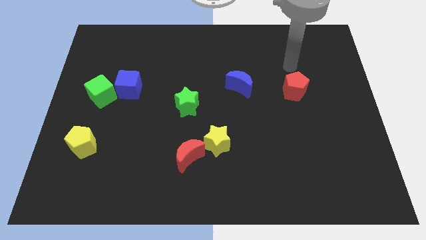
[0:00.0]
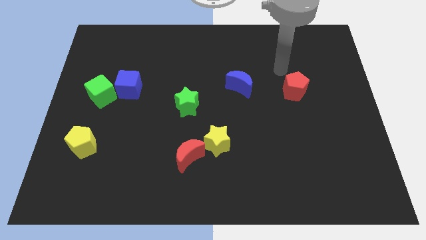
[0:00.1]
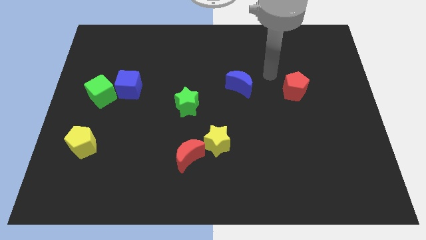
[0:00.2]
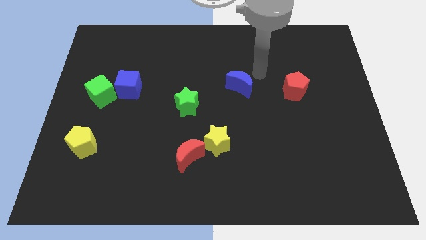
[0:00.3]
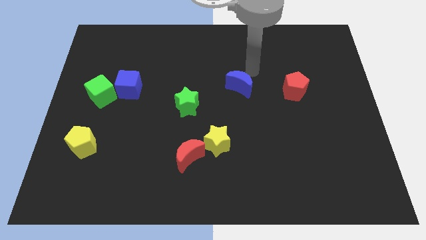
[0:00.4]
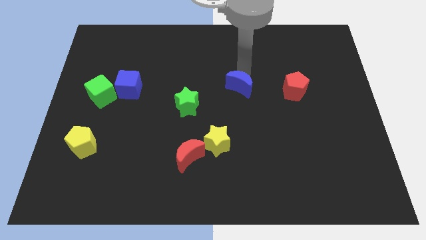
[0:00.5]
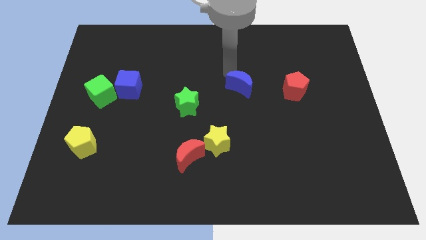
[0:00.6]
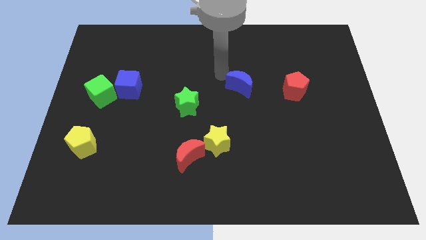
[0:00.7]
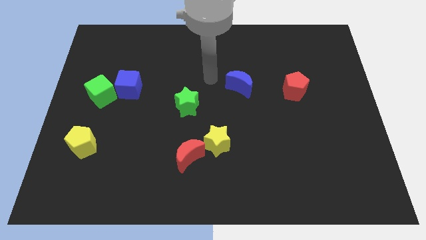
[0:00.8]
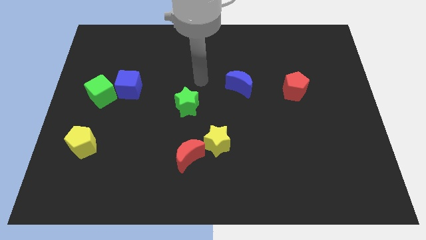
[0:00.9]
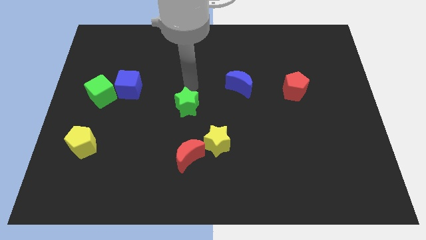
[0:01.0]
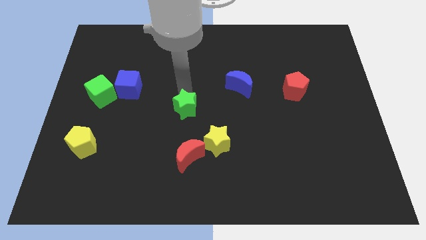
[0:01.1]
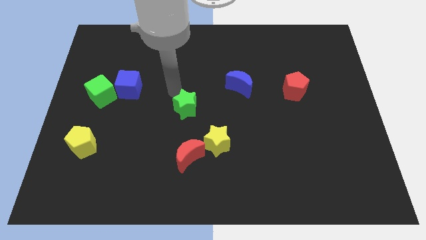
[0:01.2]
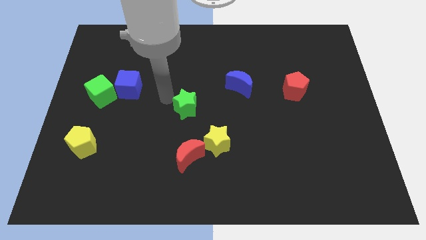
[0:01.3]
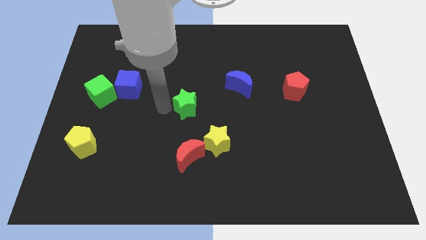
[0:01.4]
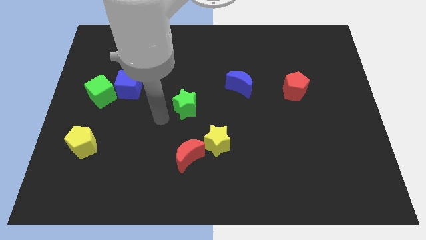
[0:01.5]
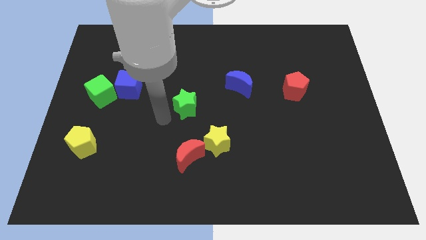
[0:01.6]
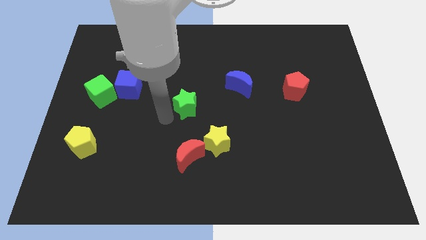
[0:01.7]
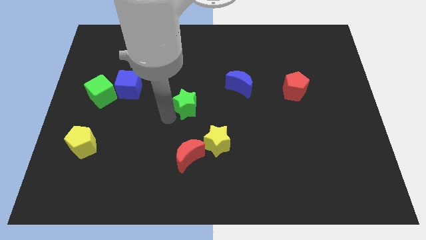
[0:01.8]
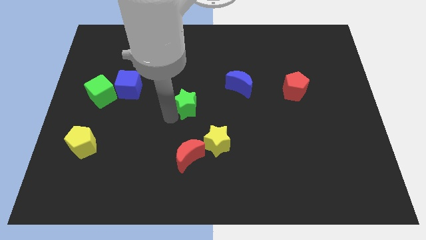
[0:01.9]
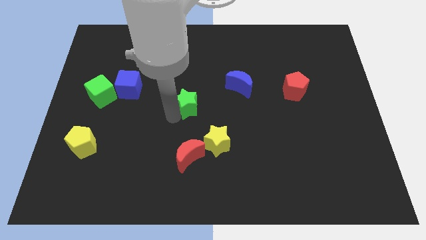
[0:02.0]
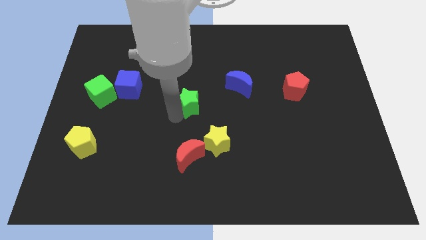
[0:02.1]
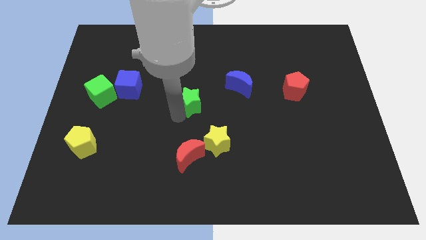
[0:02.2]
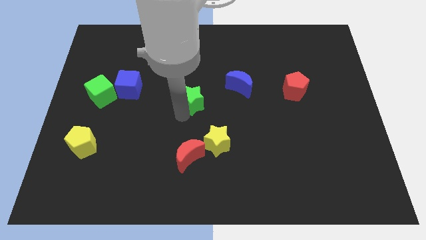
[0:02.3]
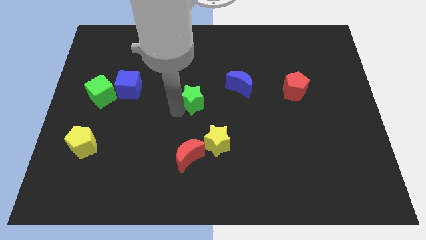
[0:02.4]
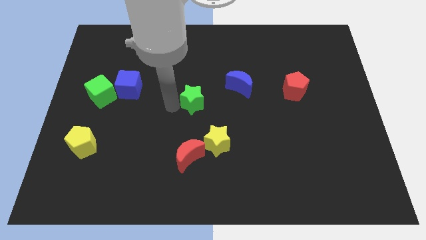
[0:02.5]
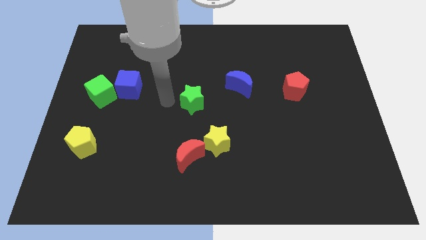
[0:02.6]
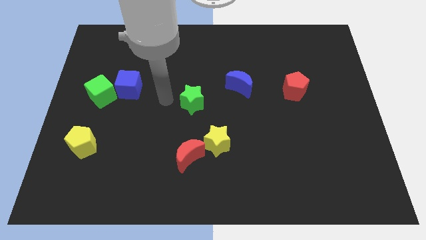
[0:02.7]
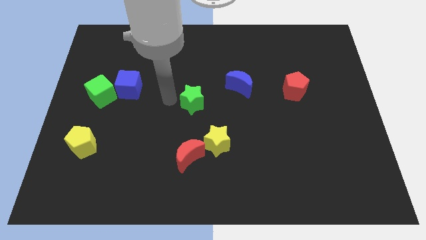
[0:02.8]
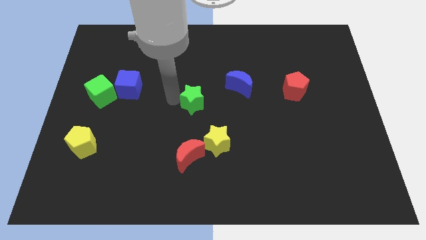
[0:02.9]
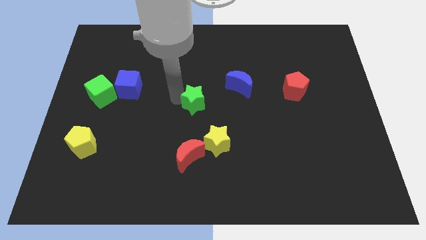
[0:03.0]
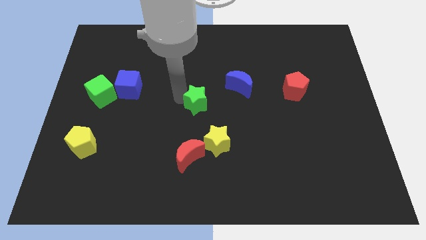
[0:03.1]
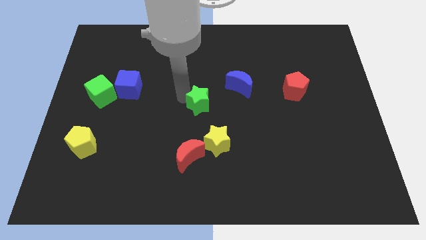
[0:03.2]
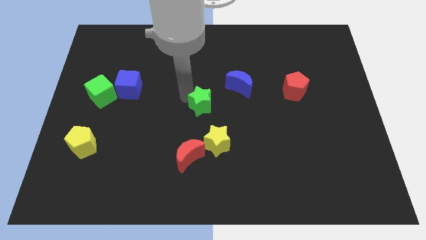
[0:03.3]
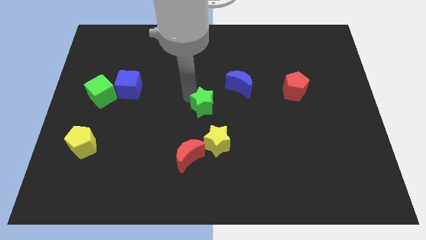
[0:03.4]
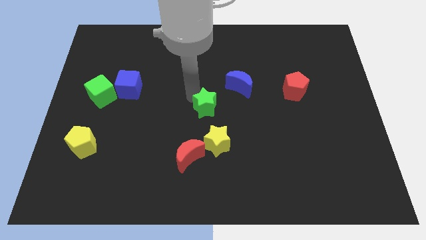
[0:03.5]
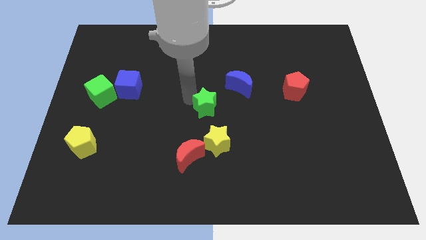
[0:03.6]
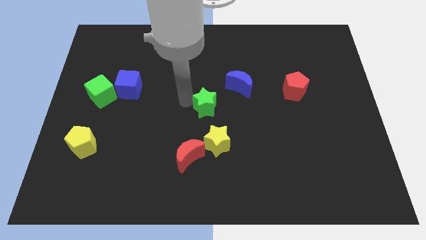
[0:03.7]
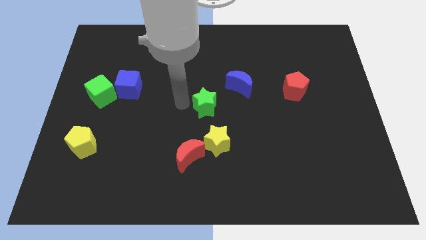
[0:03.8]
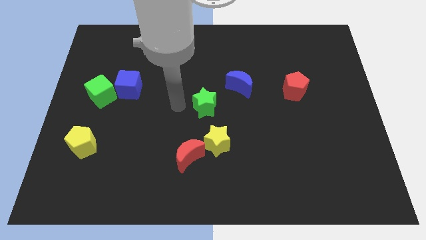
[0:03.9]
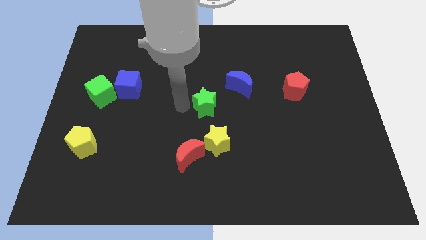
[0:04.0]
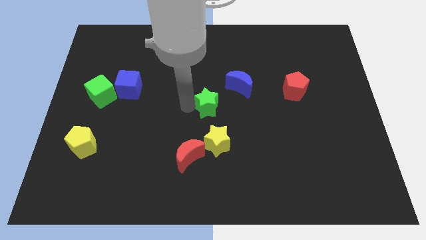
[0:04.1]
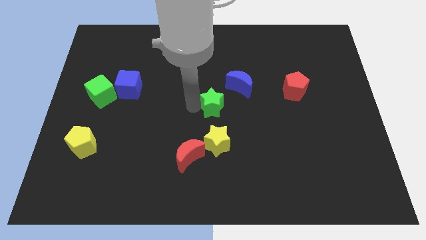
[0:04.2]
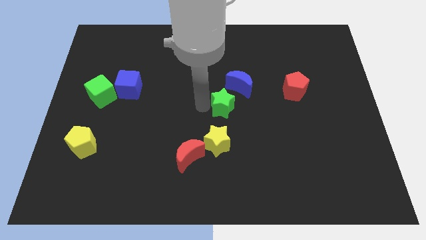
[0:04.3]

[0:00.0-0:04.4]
slightly push the green star right

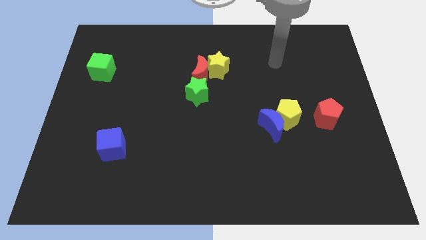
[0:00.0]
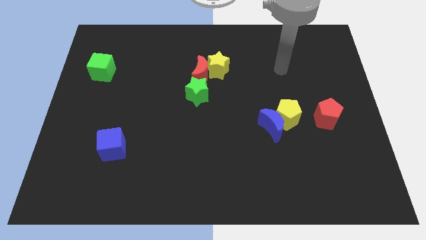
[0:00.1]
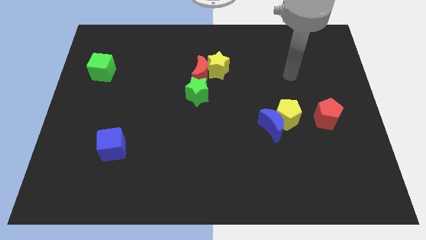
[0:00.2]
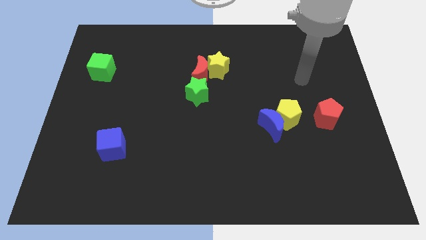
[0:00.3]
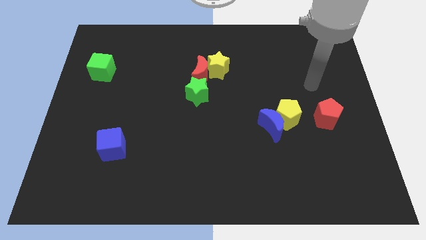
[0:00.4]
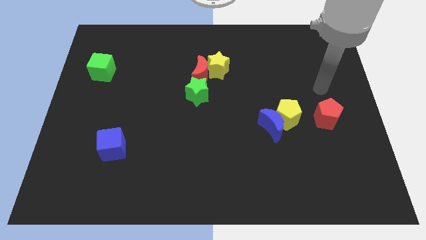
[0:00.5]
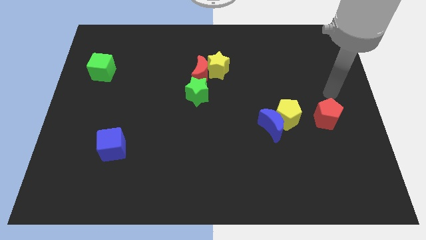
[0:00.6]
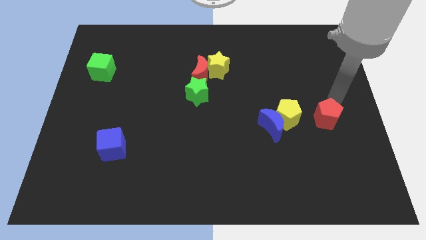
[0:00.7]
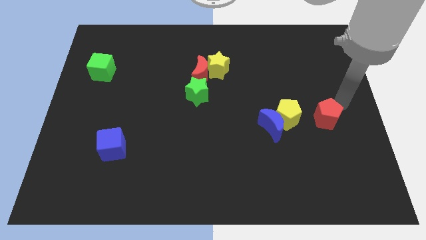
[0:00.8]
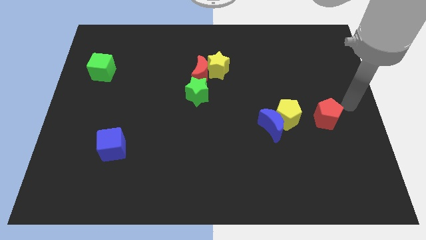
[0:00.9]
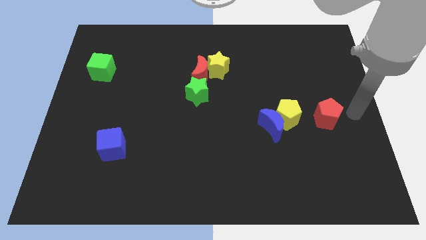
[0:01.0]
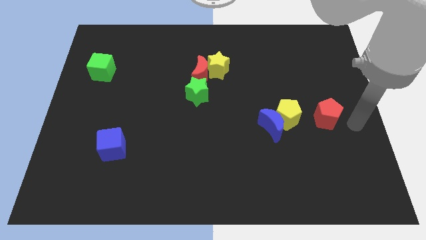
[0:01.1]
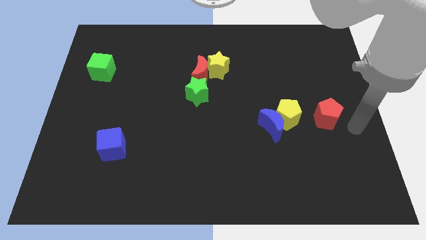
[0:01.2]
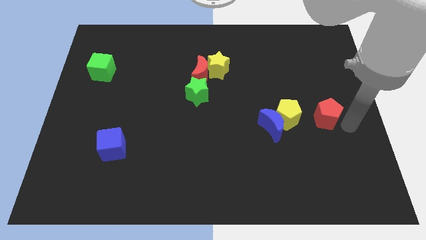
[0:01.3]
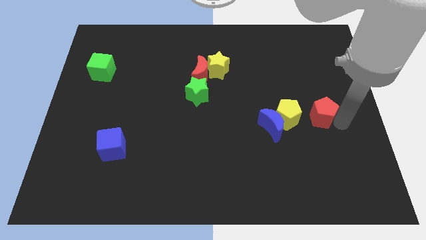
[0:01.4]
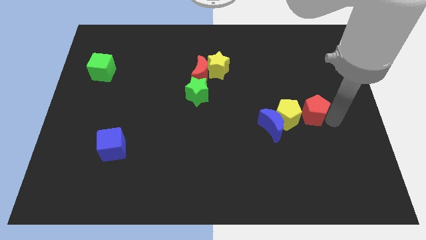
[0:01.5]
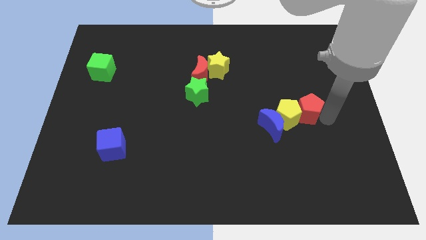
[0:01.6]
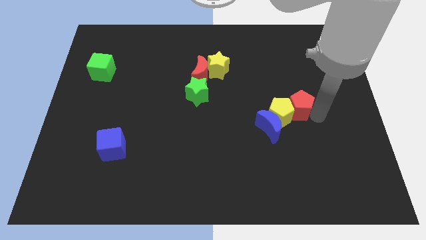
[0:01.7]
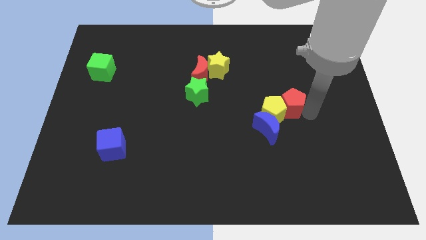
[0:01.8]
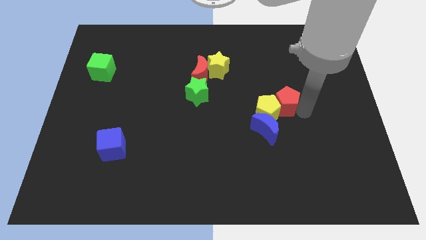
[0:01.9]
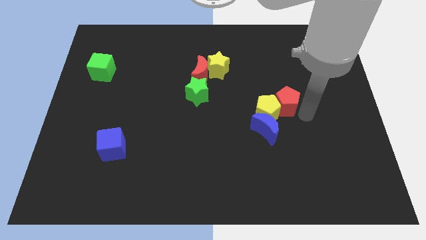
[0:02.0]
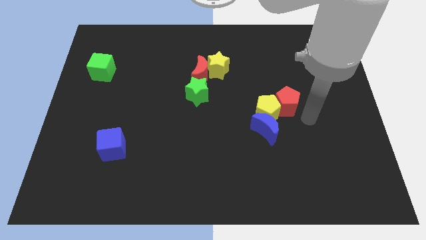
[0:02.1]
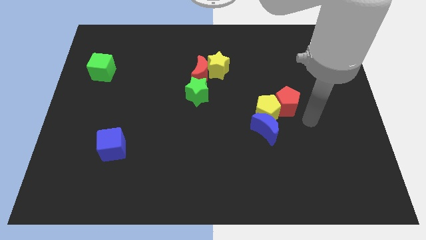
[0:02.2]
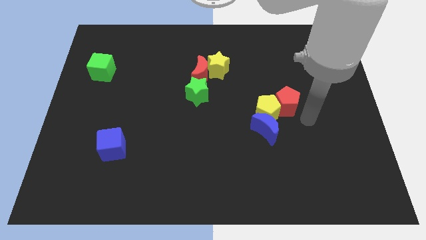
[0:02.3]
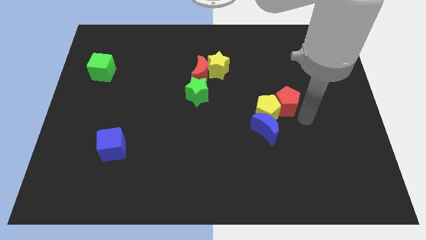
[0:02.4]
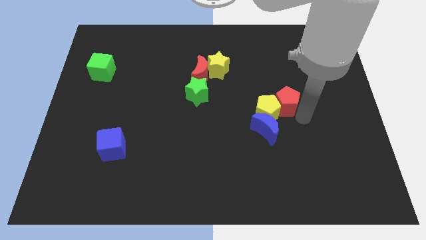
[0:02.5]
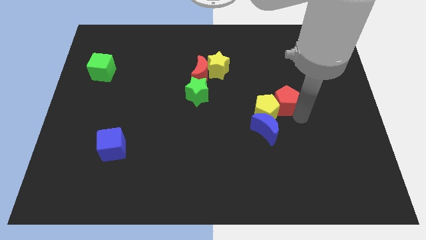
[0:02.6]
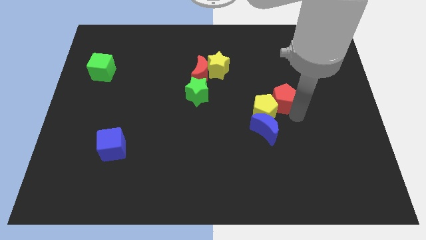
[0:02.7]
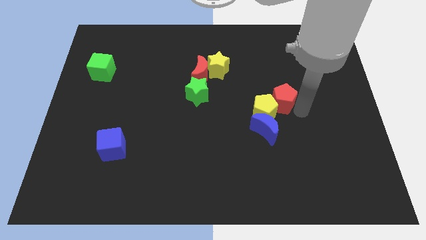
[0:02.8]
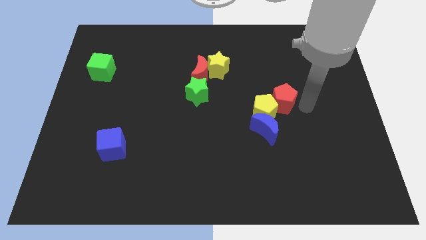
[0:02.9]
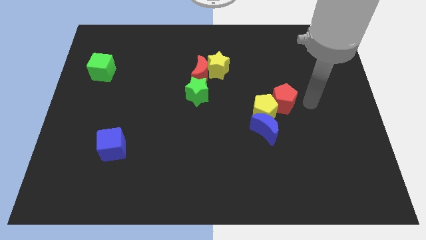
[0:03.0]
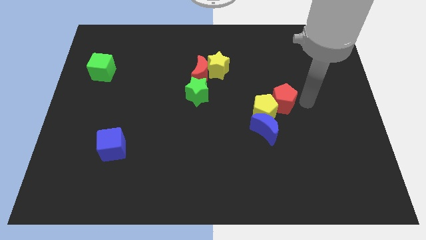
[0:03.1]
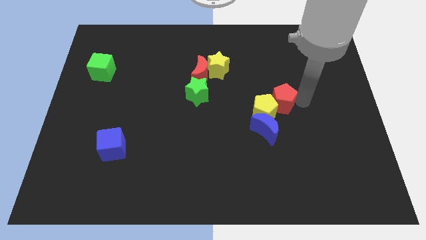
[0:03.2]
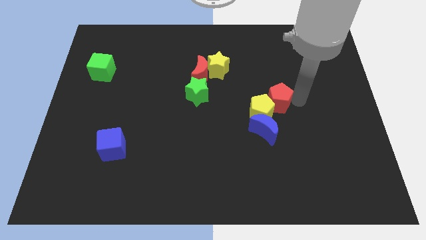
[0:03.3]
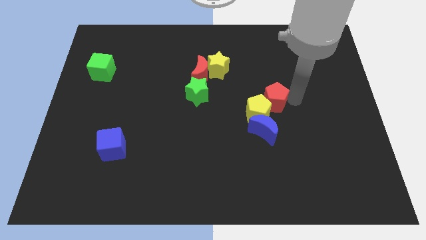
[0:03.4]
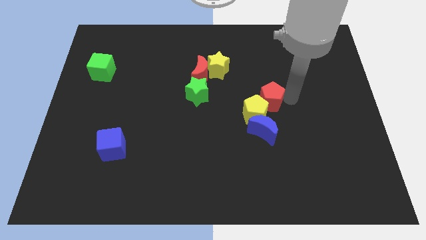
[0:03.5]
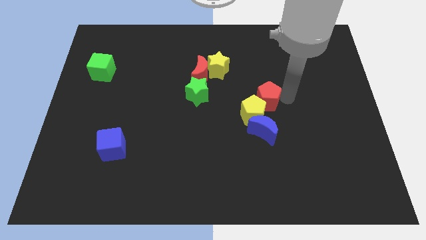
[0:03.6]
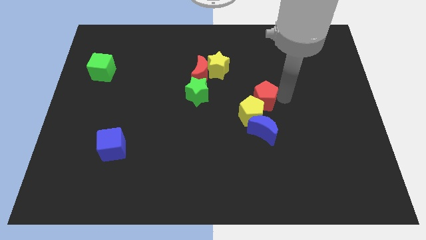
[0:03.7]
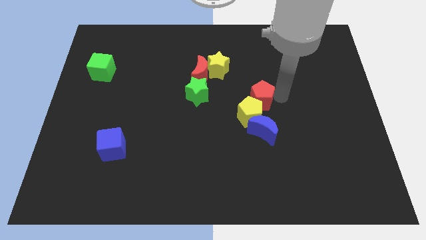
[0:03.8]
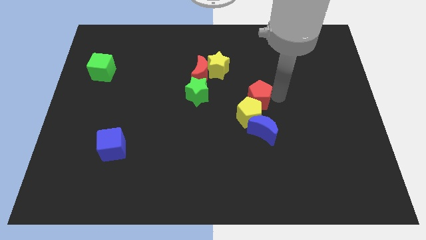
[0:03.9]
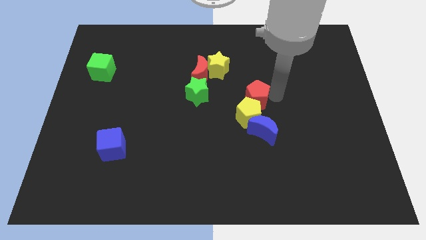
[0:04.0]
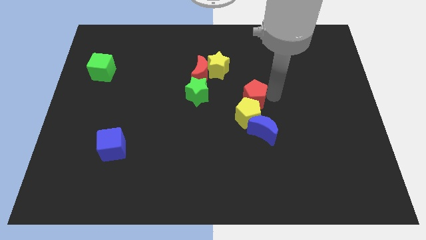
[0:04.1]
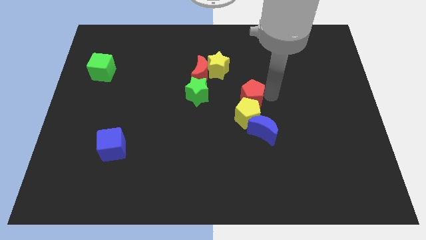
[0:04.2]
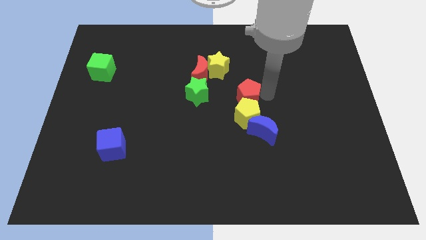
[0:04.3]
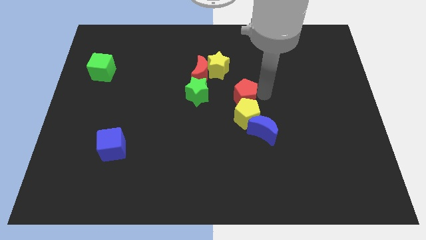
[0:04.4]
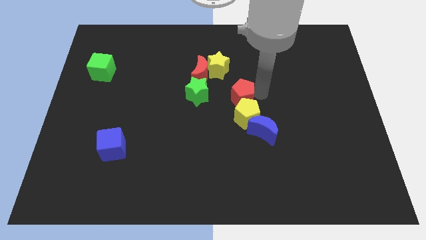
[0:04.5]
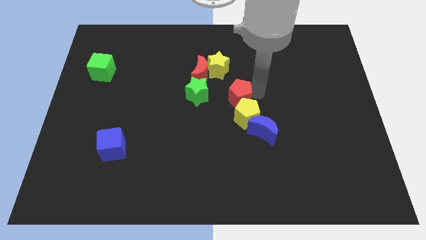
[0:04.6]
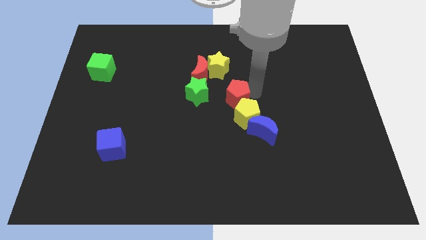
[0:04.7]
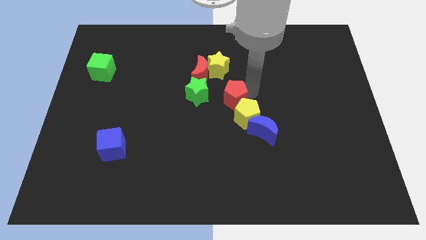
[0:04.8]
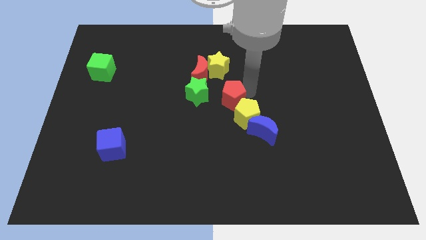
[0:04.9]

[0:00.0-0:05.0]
move the red pentagon to the left
